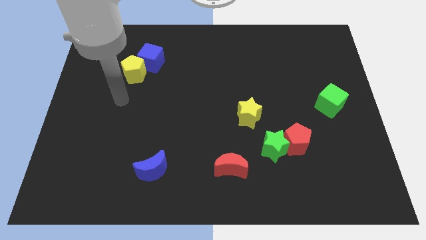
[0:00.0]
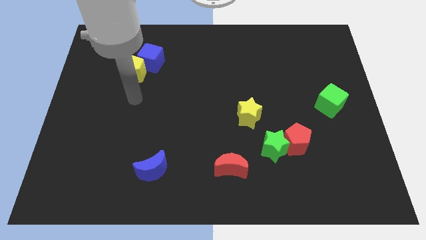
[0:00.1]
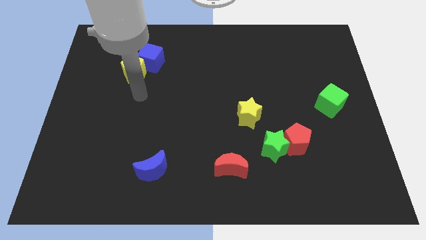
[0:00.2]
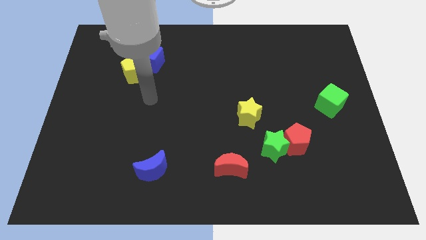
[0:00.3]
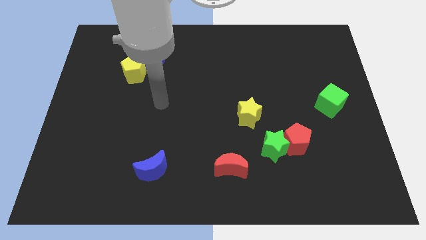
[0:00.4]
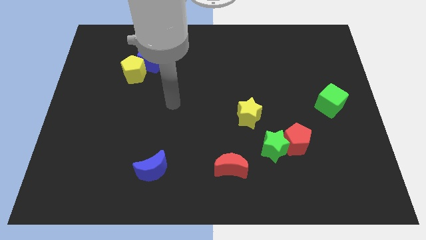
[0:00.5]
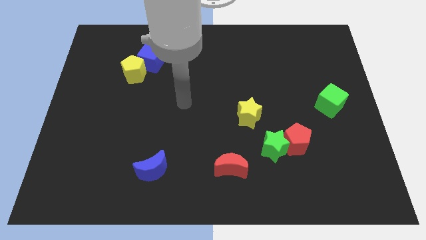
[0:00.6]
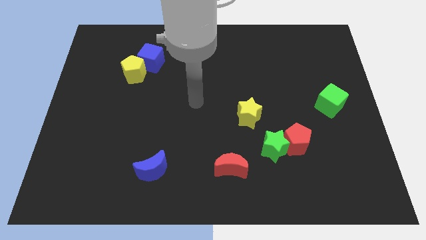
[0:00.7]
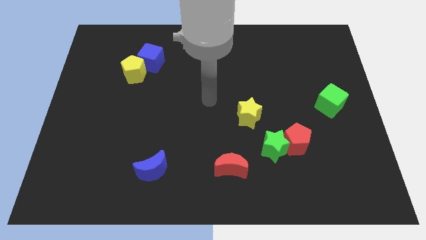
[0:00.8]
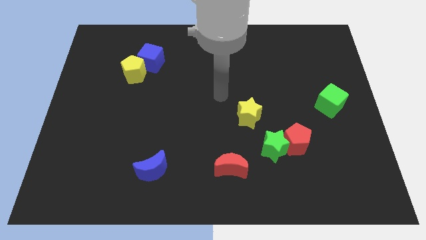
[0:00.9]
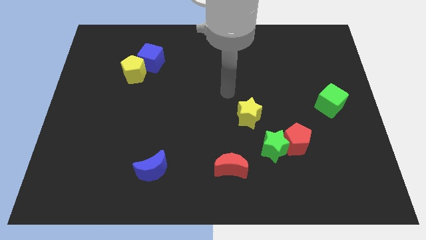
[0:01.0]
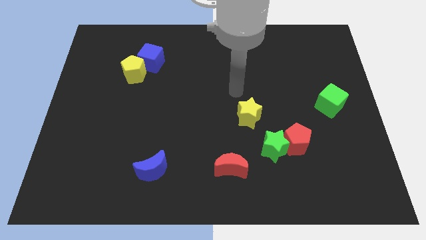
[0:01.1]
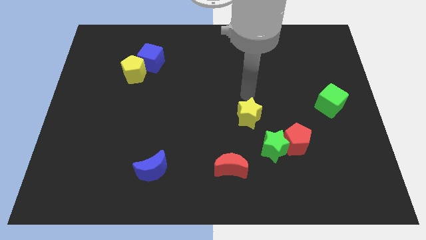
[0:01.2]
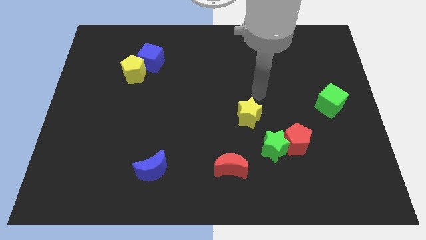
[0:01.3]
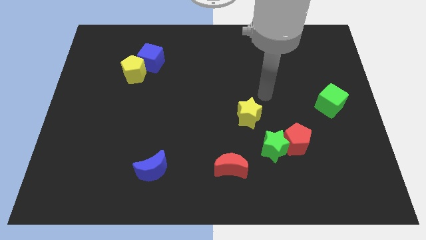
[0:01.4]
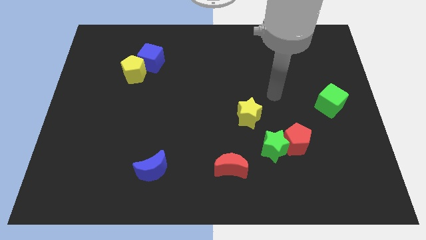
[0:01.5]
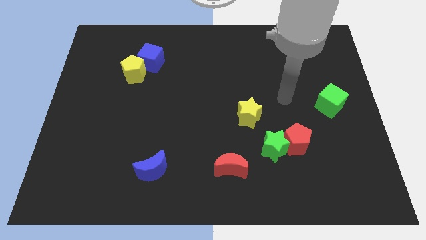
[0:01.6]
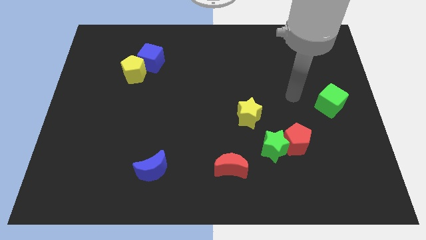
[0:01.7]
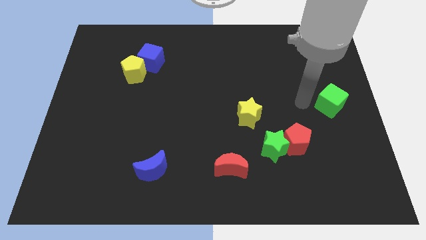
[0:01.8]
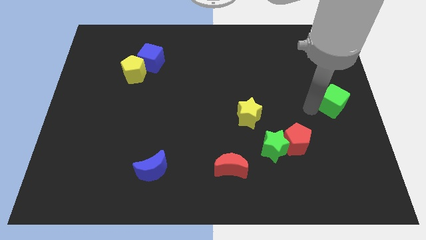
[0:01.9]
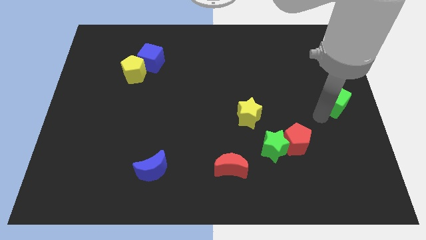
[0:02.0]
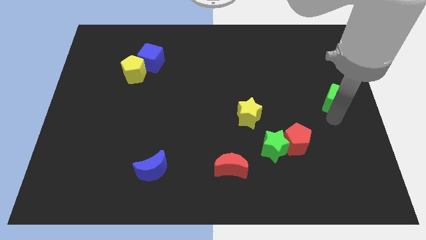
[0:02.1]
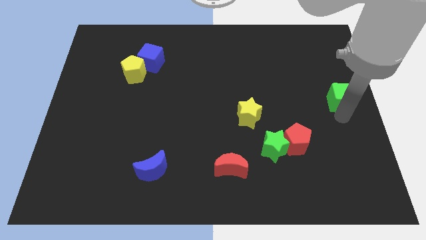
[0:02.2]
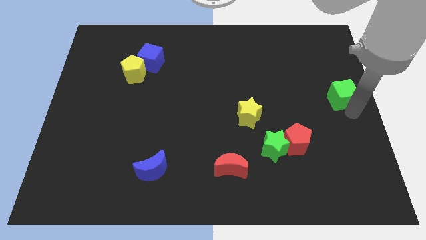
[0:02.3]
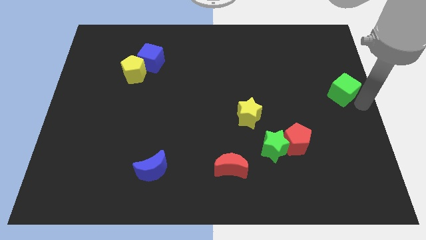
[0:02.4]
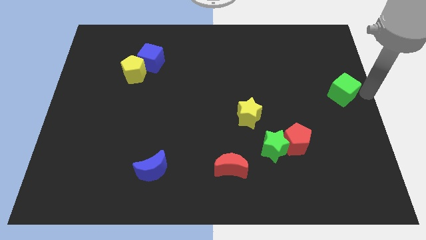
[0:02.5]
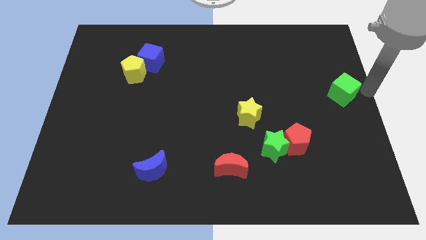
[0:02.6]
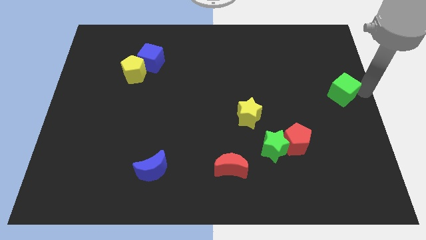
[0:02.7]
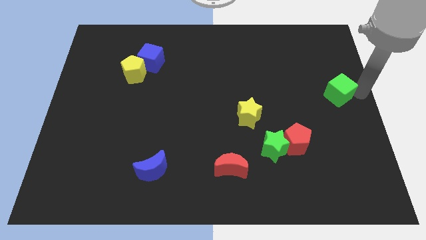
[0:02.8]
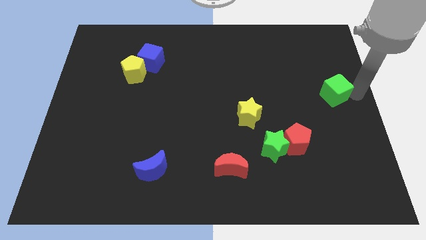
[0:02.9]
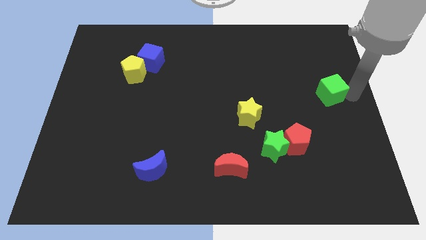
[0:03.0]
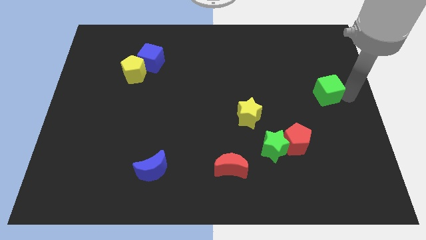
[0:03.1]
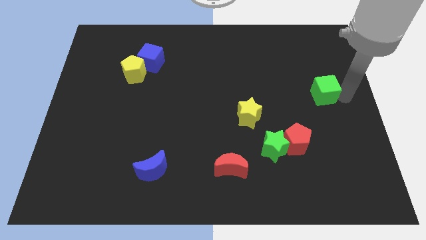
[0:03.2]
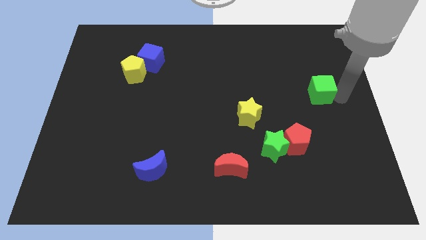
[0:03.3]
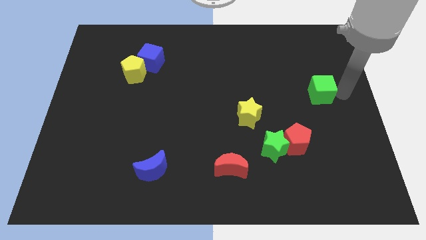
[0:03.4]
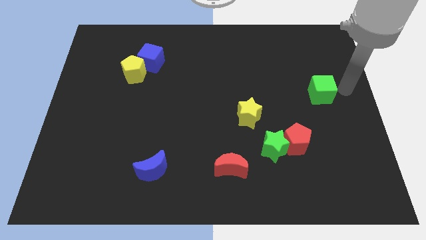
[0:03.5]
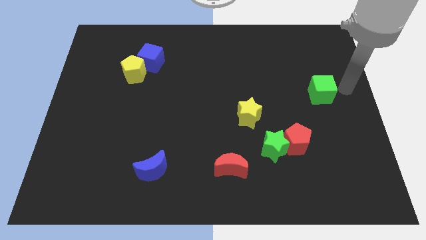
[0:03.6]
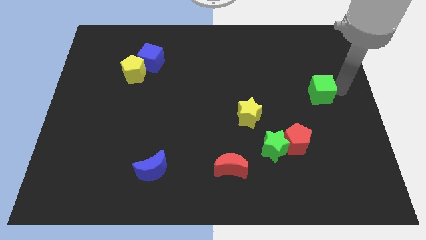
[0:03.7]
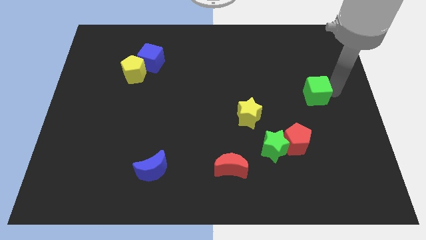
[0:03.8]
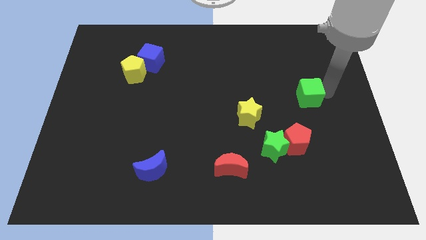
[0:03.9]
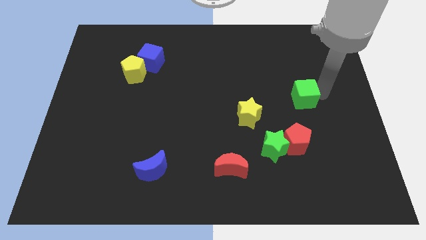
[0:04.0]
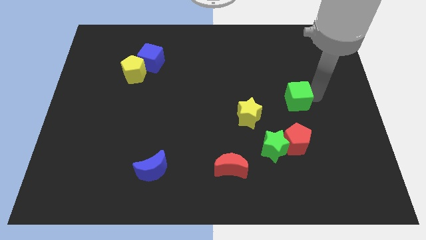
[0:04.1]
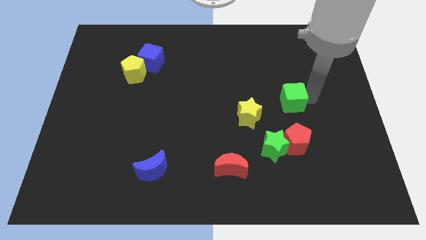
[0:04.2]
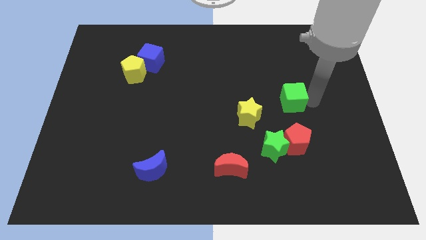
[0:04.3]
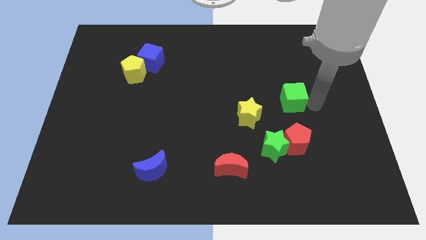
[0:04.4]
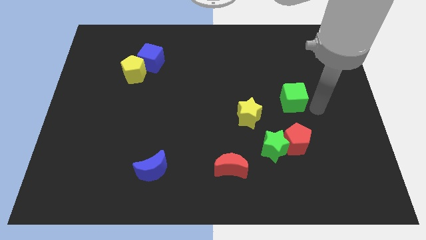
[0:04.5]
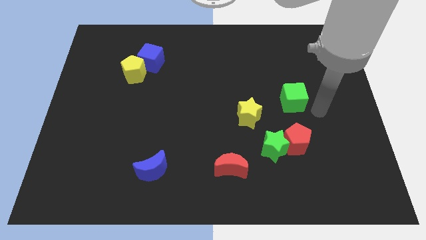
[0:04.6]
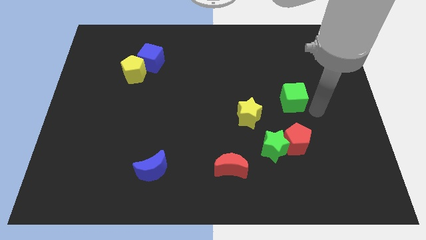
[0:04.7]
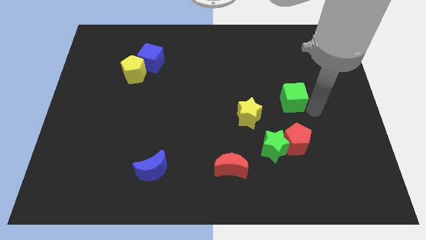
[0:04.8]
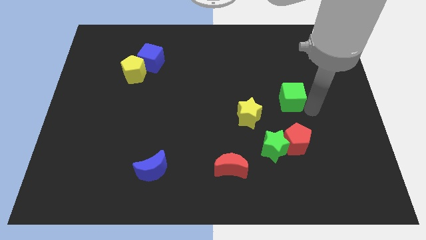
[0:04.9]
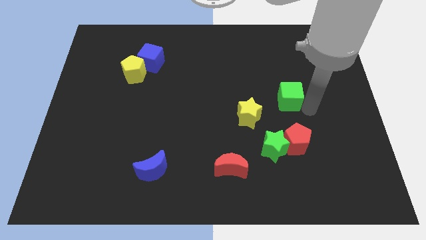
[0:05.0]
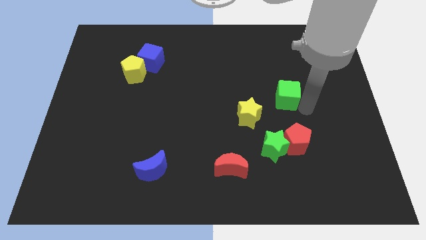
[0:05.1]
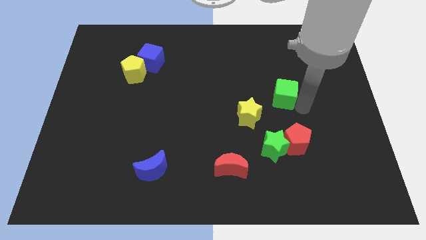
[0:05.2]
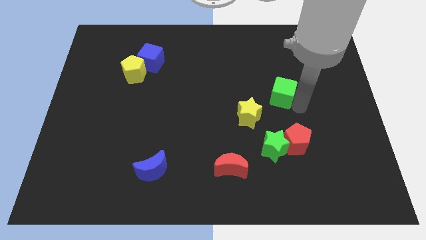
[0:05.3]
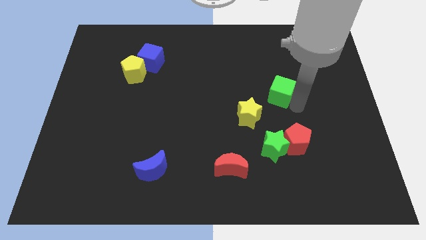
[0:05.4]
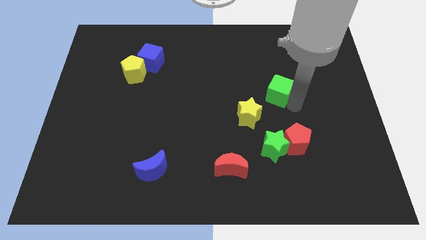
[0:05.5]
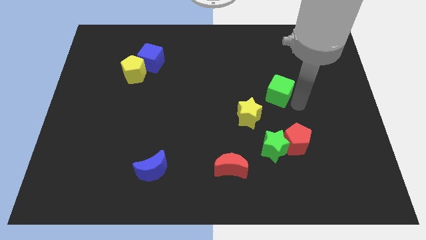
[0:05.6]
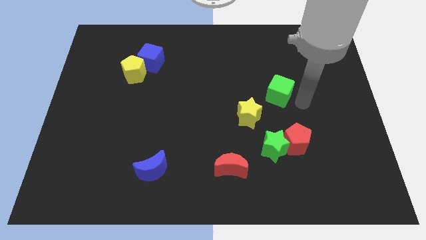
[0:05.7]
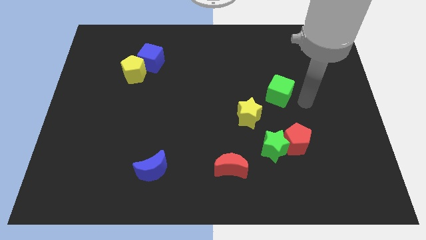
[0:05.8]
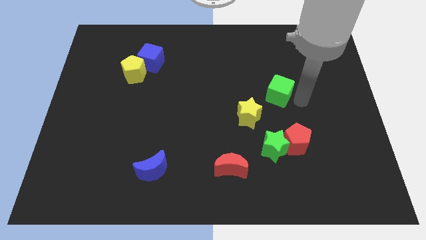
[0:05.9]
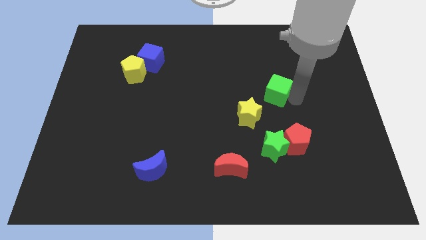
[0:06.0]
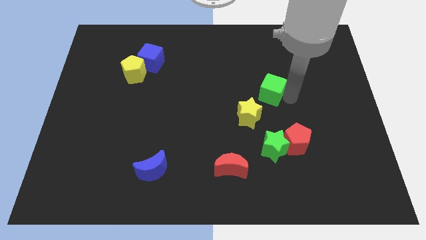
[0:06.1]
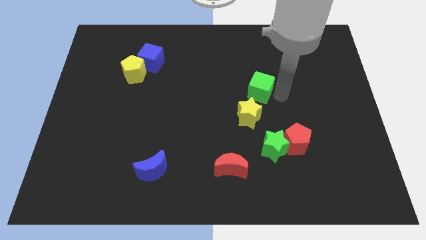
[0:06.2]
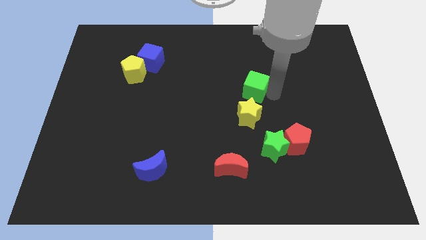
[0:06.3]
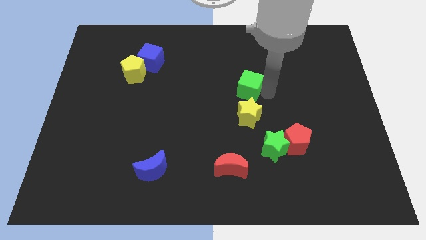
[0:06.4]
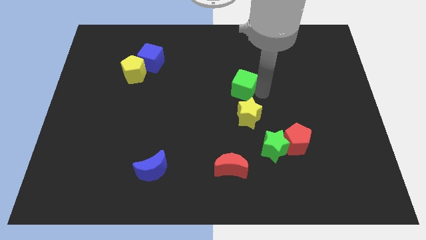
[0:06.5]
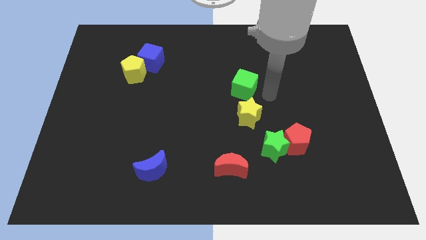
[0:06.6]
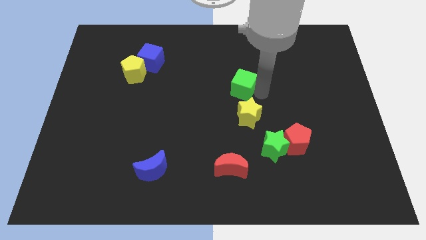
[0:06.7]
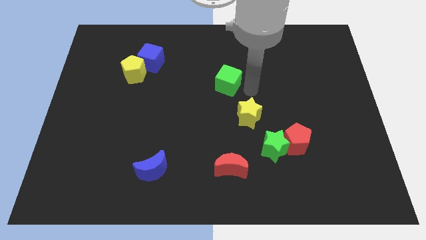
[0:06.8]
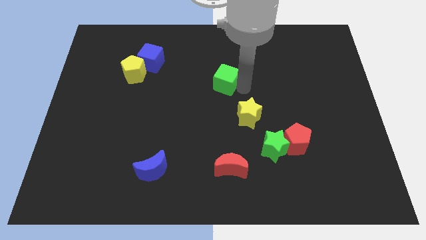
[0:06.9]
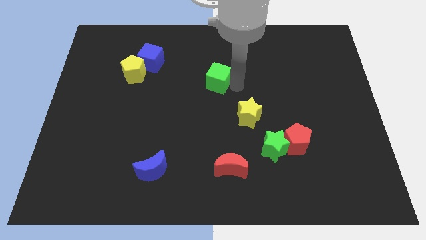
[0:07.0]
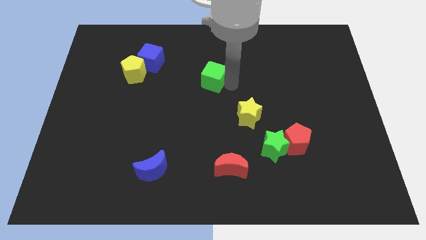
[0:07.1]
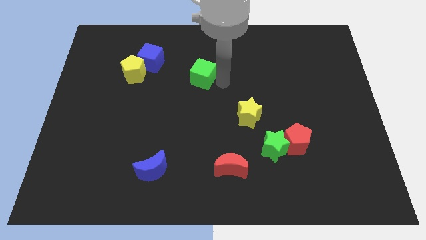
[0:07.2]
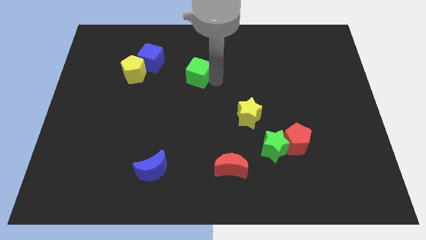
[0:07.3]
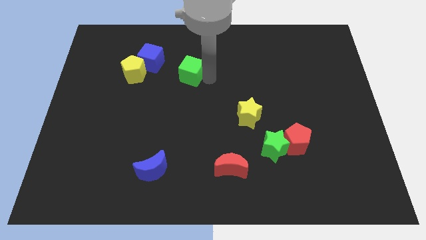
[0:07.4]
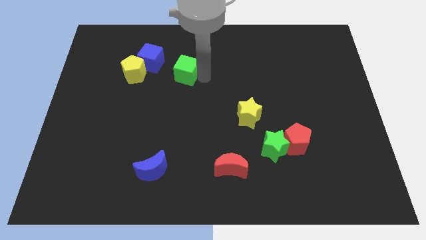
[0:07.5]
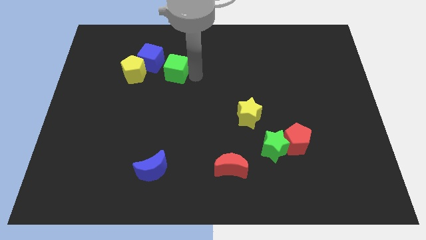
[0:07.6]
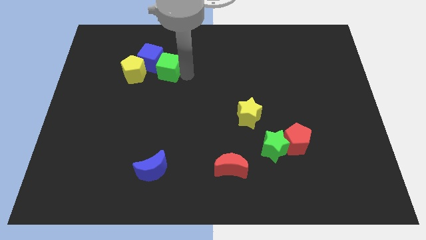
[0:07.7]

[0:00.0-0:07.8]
slide the green cube towards the blue cube
